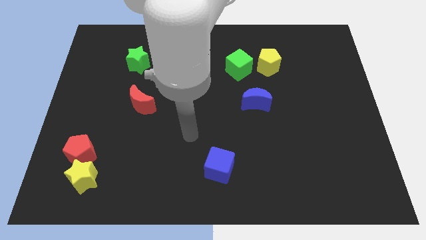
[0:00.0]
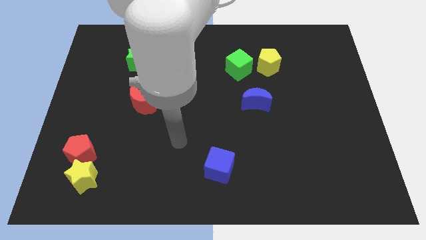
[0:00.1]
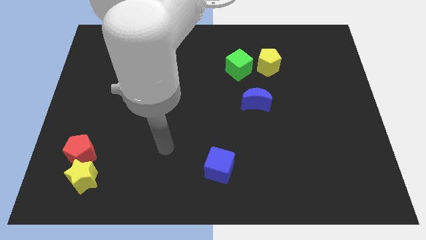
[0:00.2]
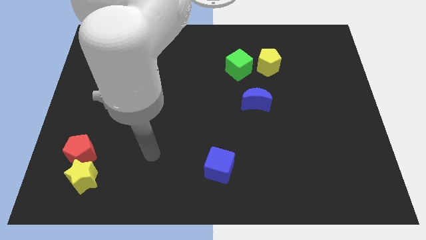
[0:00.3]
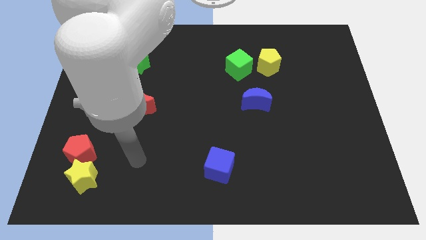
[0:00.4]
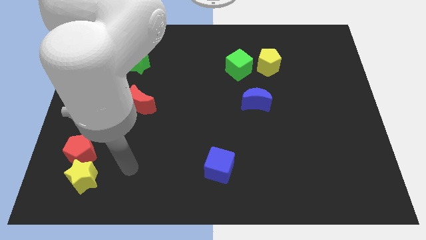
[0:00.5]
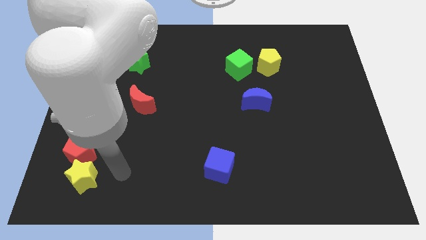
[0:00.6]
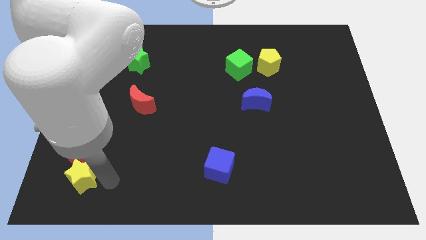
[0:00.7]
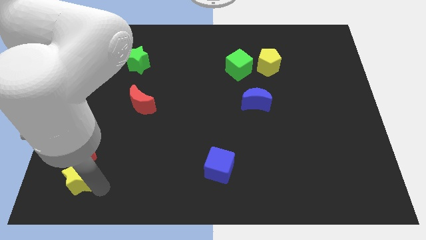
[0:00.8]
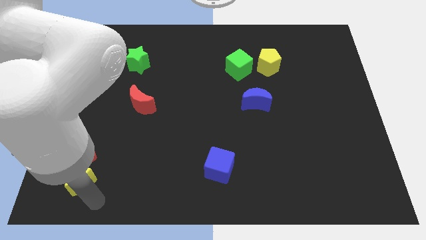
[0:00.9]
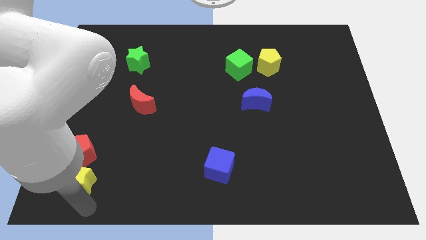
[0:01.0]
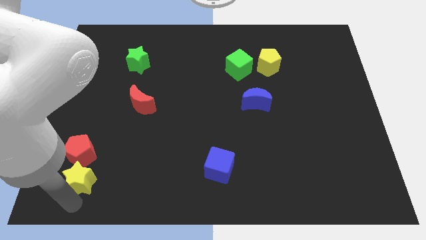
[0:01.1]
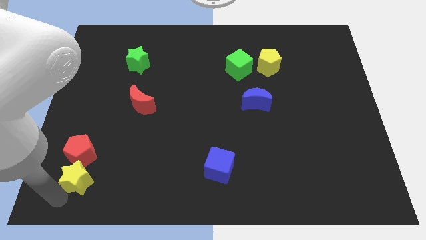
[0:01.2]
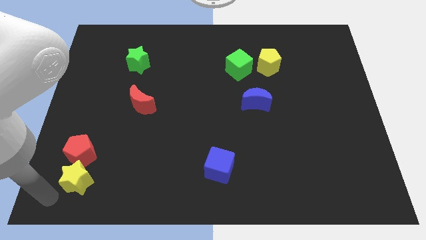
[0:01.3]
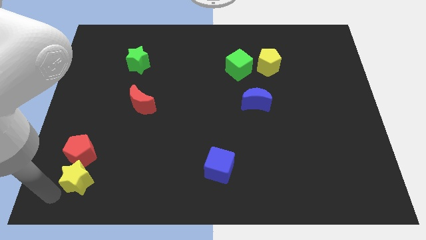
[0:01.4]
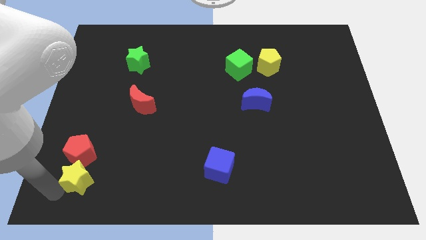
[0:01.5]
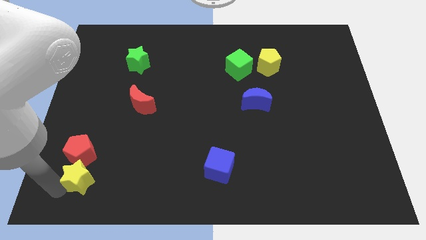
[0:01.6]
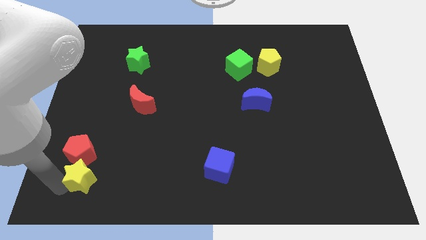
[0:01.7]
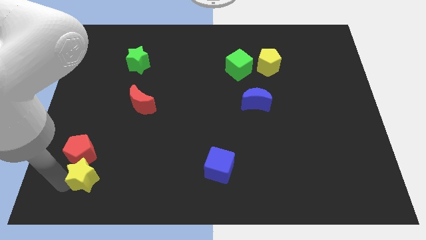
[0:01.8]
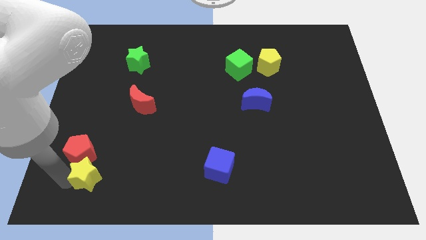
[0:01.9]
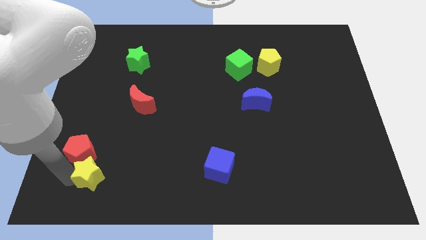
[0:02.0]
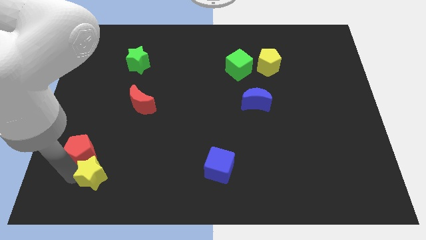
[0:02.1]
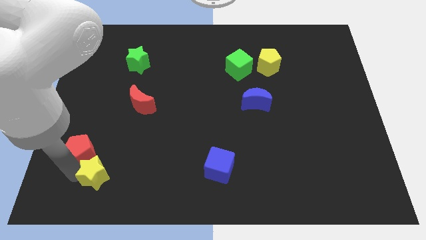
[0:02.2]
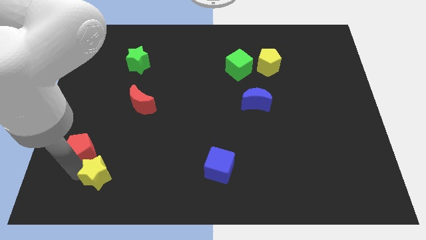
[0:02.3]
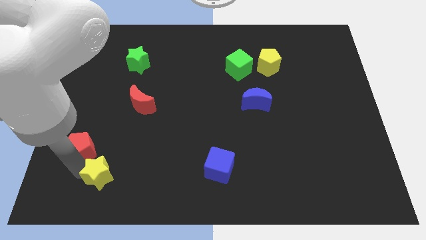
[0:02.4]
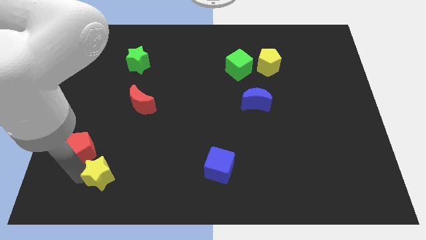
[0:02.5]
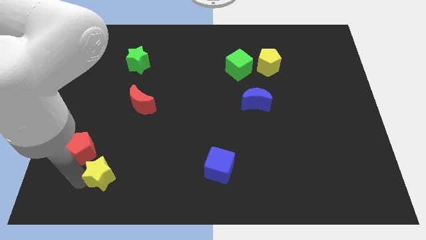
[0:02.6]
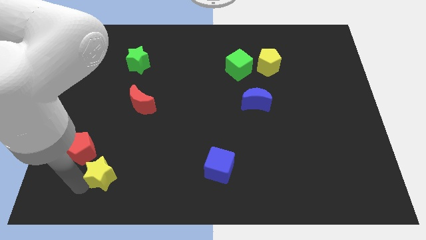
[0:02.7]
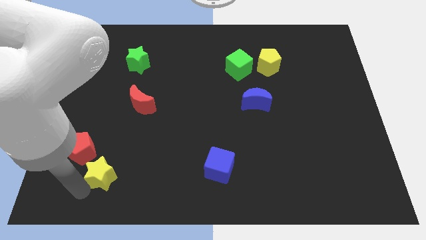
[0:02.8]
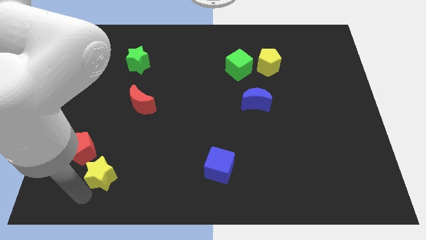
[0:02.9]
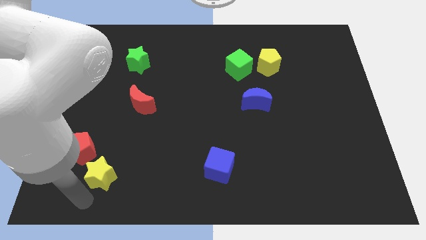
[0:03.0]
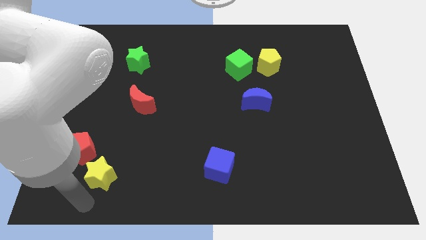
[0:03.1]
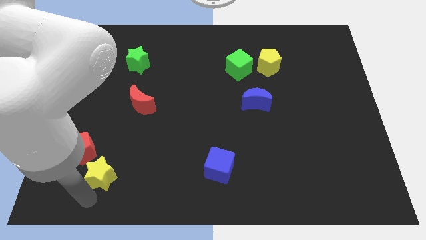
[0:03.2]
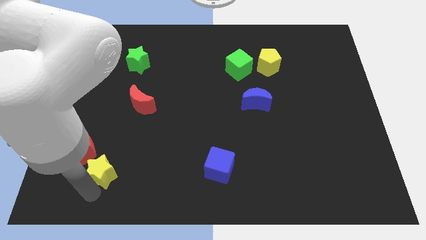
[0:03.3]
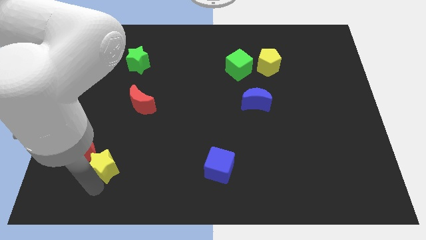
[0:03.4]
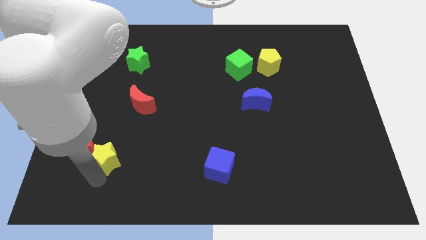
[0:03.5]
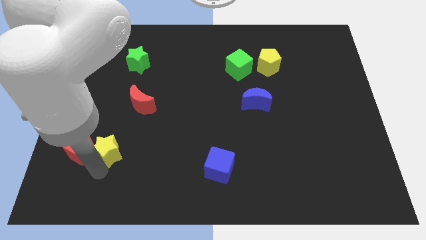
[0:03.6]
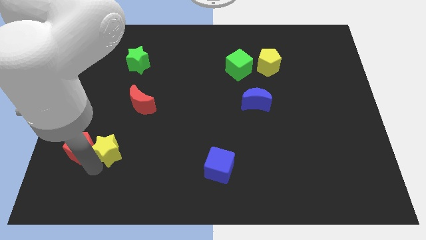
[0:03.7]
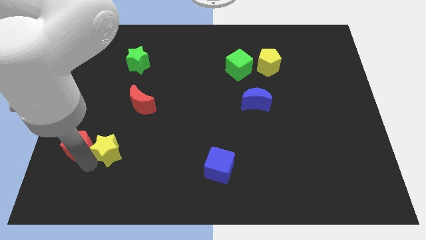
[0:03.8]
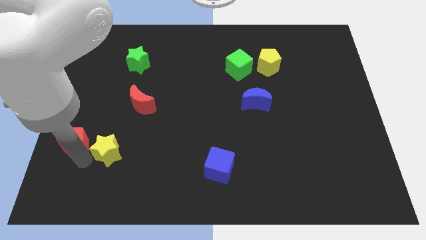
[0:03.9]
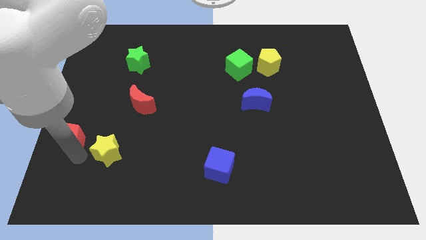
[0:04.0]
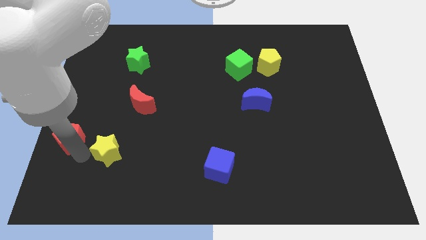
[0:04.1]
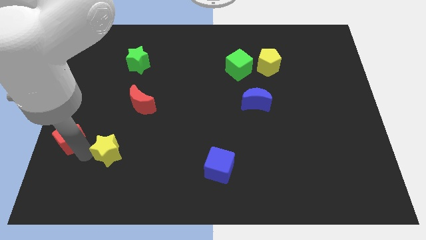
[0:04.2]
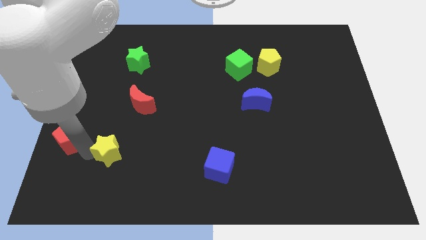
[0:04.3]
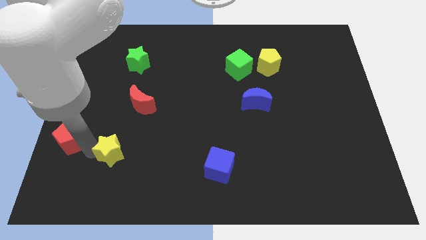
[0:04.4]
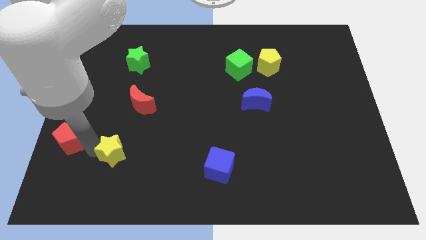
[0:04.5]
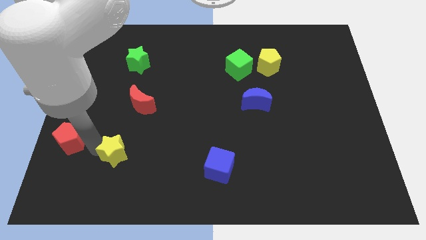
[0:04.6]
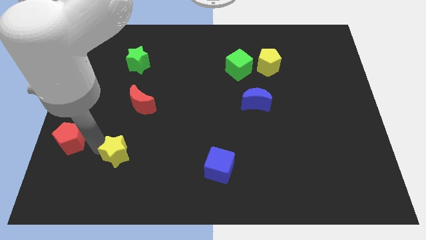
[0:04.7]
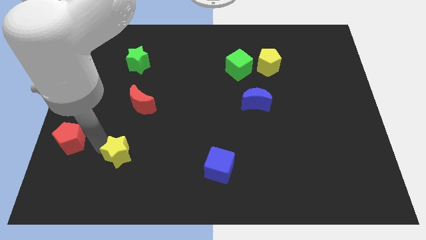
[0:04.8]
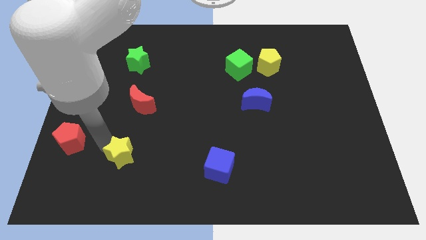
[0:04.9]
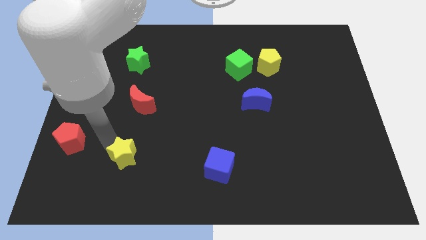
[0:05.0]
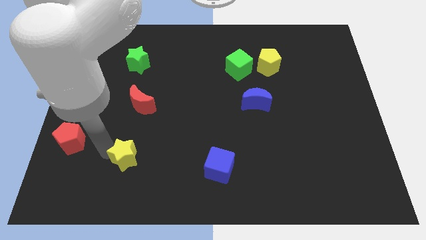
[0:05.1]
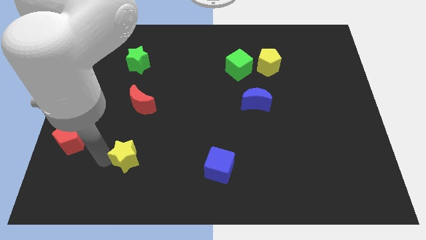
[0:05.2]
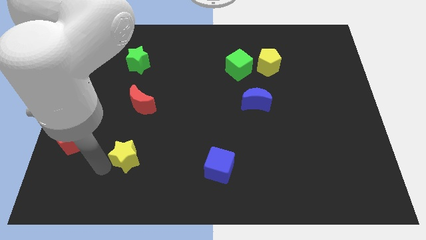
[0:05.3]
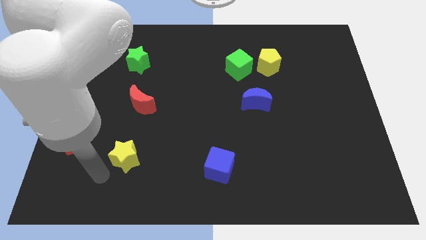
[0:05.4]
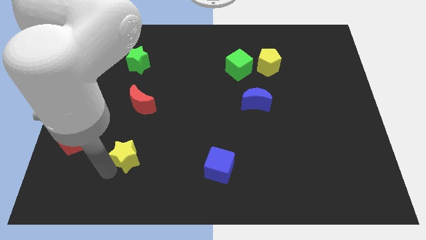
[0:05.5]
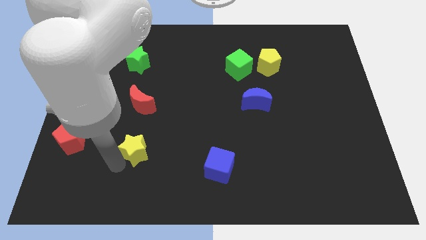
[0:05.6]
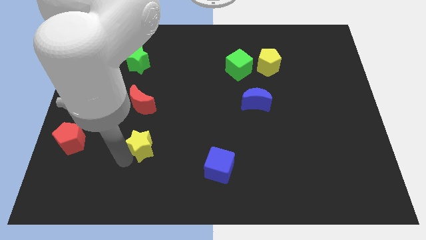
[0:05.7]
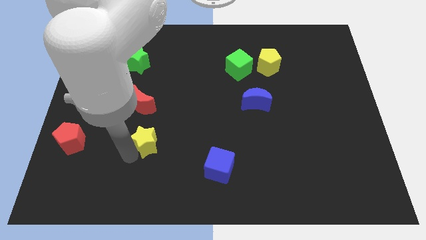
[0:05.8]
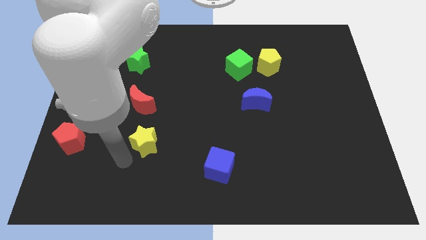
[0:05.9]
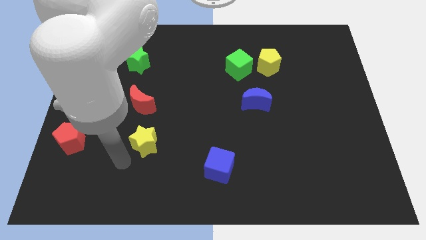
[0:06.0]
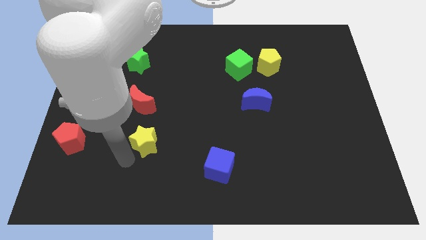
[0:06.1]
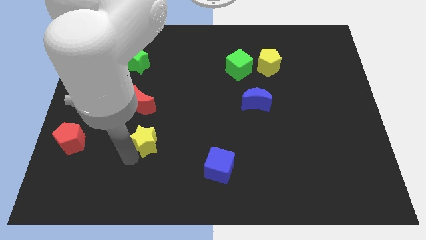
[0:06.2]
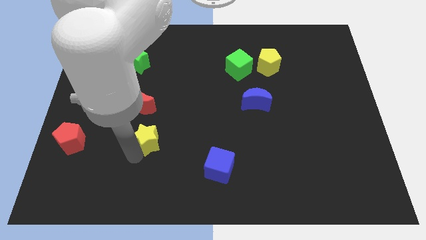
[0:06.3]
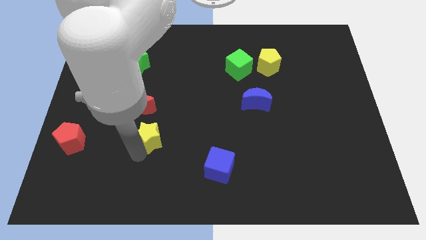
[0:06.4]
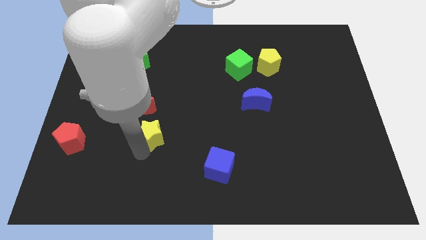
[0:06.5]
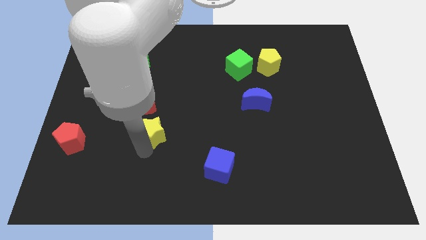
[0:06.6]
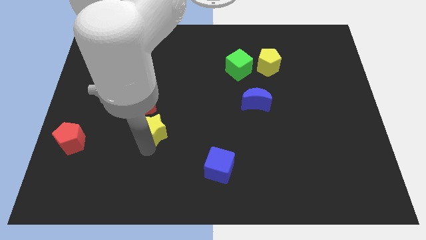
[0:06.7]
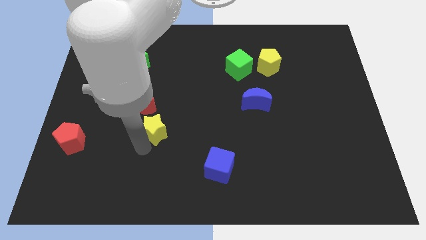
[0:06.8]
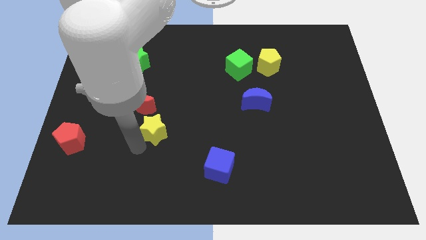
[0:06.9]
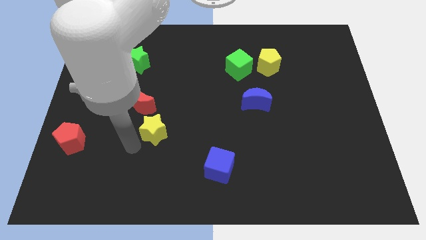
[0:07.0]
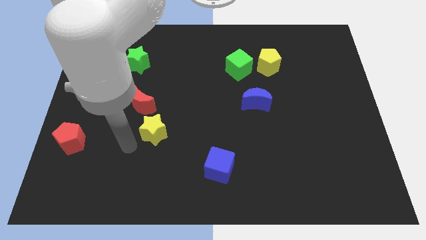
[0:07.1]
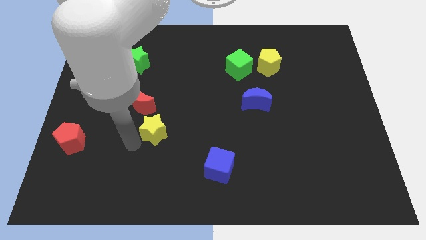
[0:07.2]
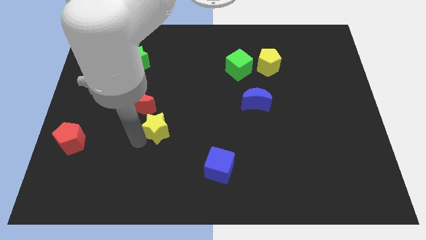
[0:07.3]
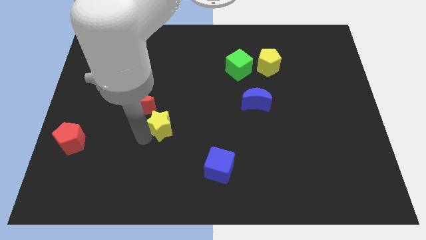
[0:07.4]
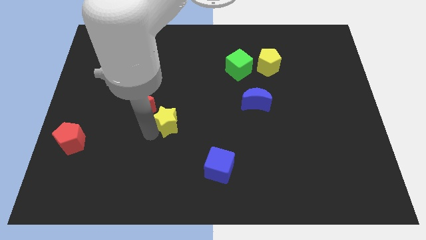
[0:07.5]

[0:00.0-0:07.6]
move the yellow star to the middle
